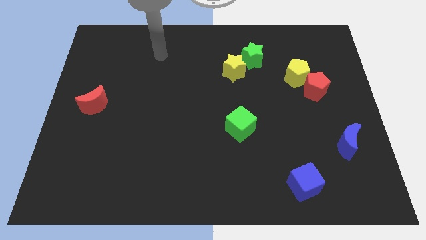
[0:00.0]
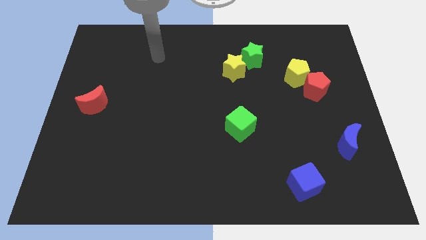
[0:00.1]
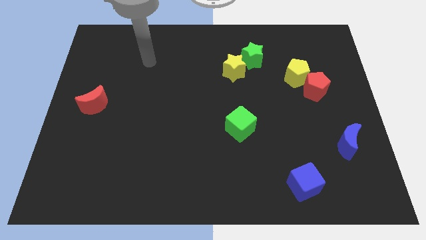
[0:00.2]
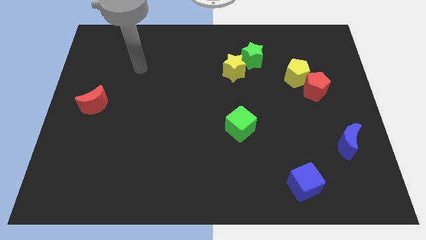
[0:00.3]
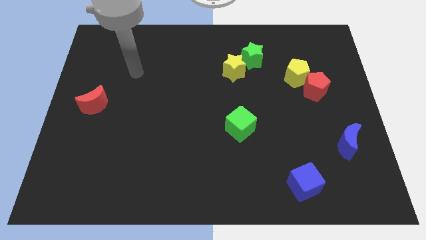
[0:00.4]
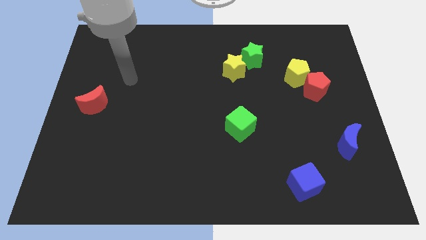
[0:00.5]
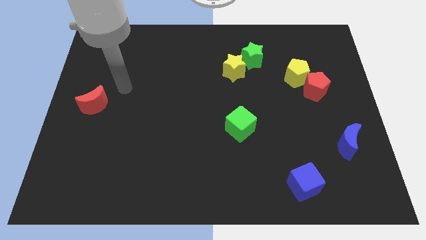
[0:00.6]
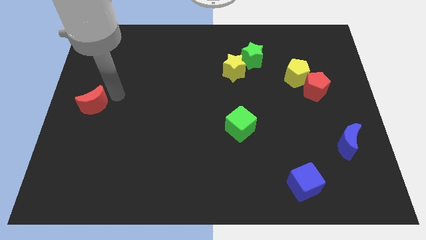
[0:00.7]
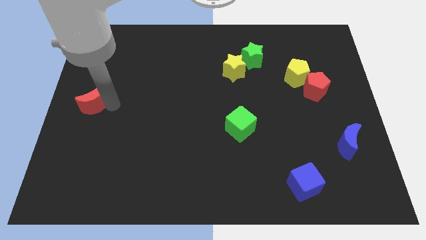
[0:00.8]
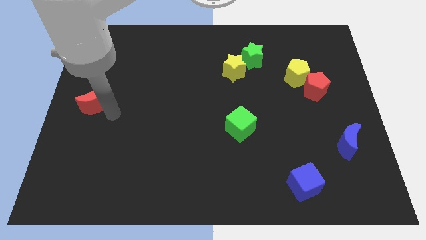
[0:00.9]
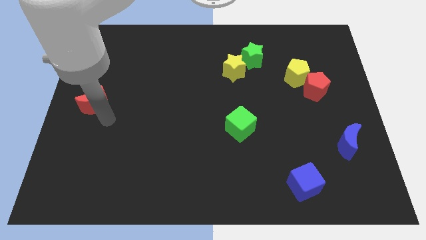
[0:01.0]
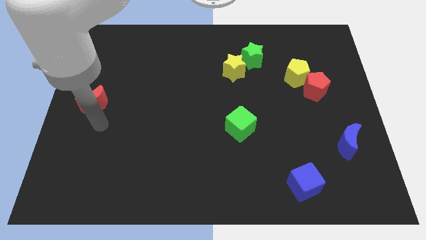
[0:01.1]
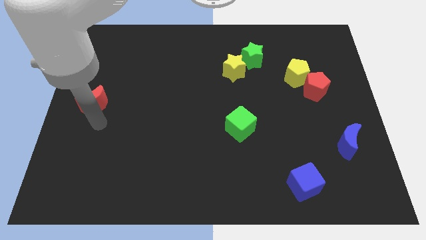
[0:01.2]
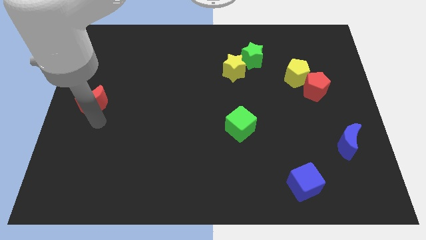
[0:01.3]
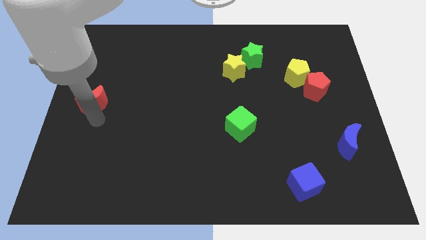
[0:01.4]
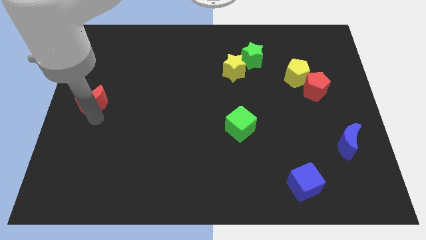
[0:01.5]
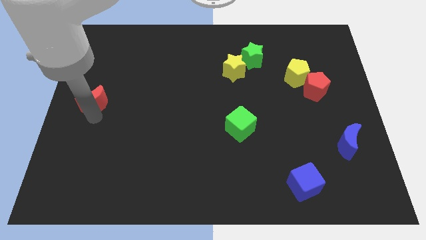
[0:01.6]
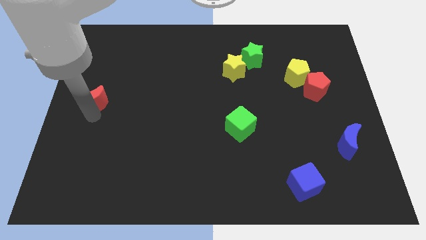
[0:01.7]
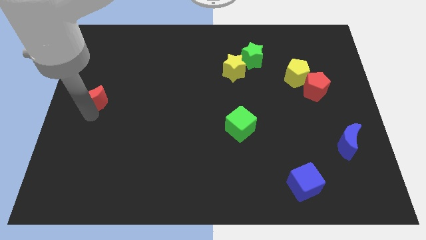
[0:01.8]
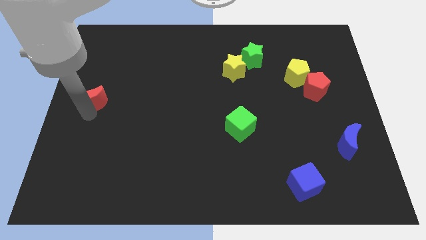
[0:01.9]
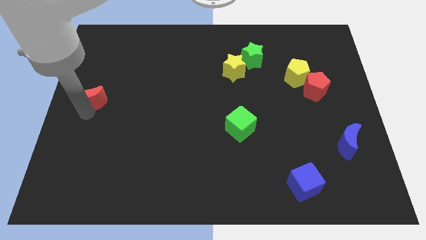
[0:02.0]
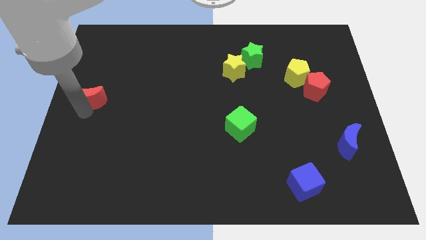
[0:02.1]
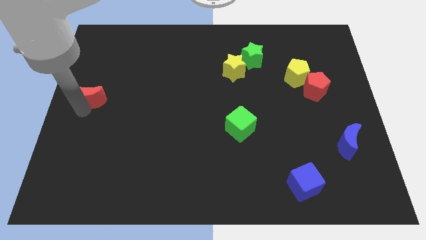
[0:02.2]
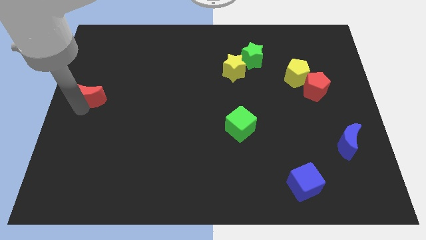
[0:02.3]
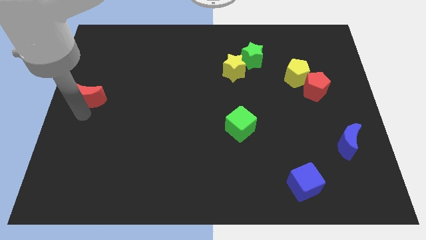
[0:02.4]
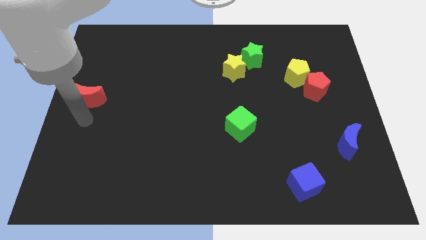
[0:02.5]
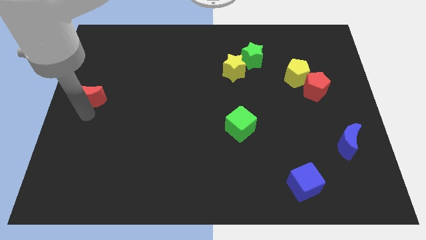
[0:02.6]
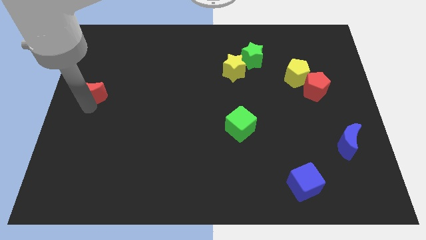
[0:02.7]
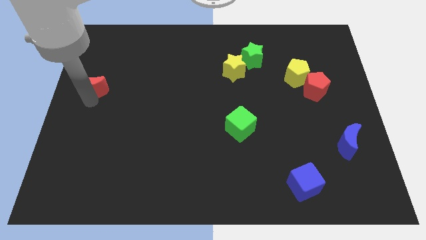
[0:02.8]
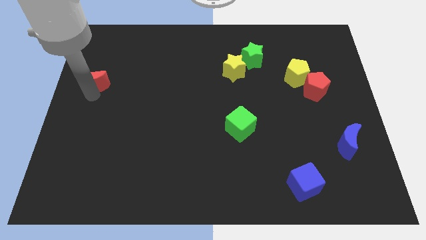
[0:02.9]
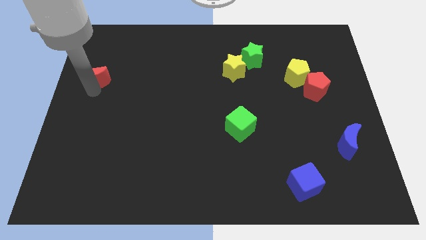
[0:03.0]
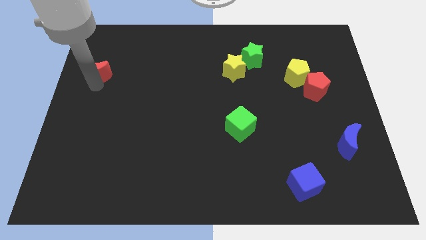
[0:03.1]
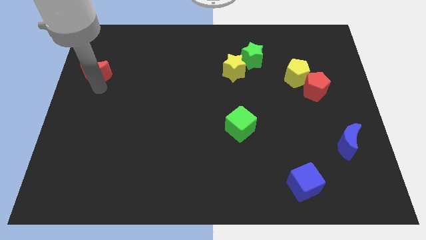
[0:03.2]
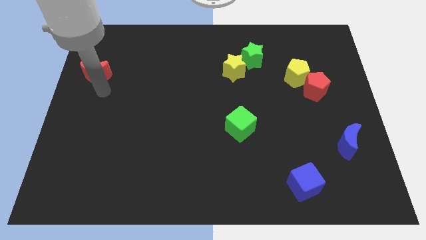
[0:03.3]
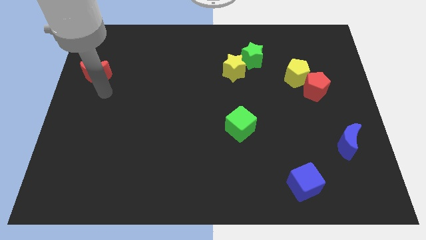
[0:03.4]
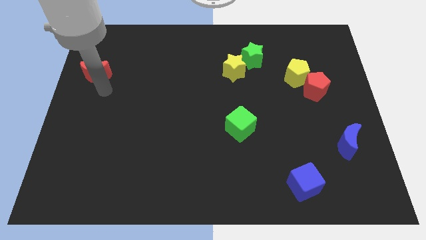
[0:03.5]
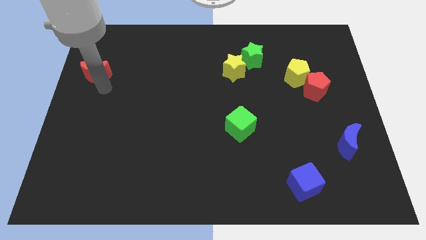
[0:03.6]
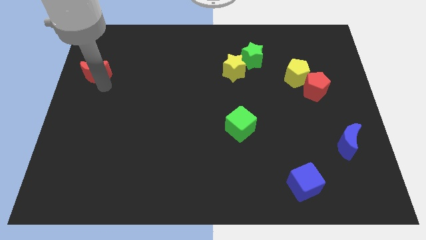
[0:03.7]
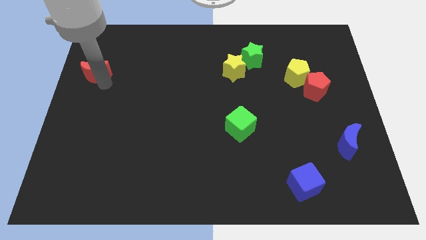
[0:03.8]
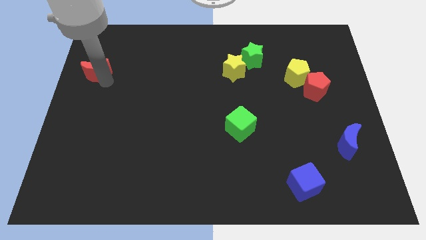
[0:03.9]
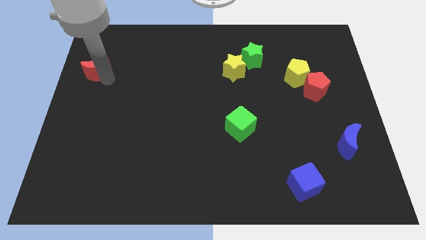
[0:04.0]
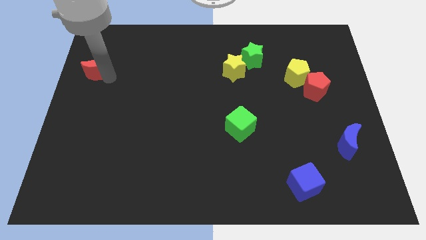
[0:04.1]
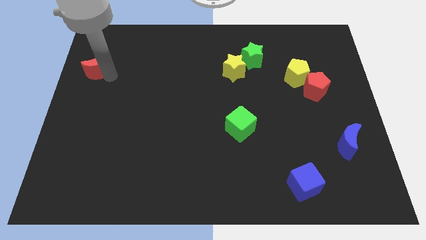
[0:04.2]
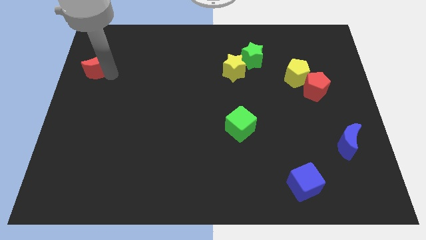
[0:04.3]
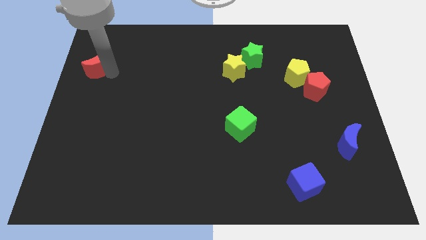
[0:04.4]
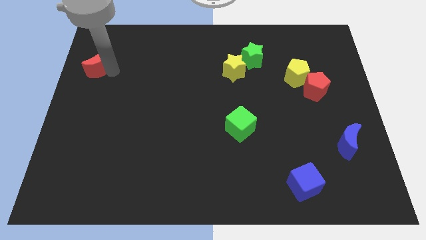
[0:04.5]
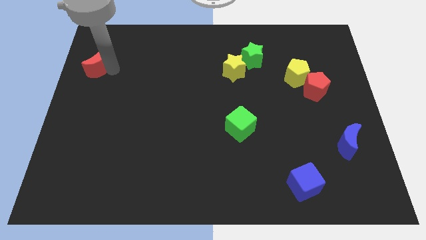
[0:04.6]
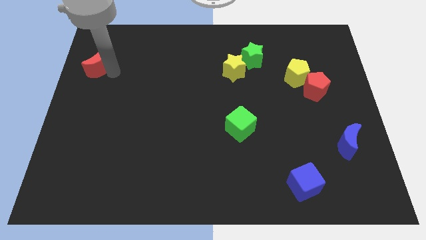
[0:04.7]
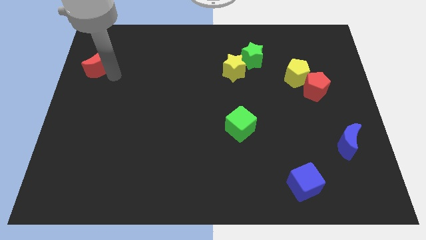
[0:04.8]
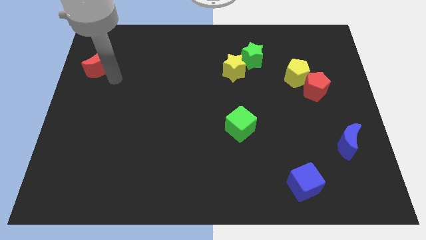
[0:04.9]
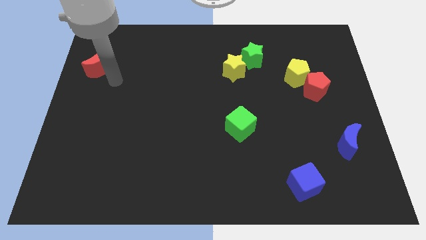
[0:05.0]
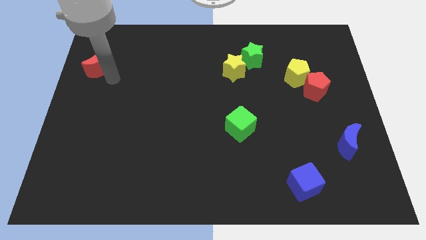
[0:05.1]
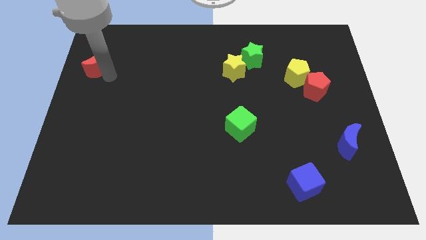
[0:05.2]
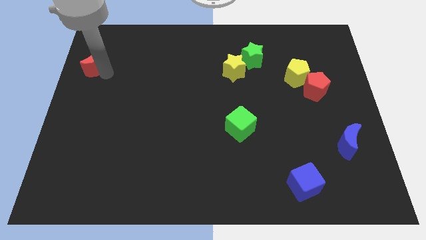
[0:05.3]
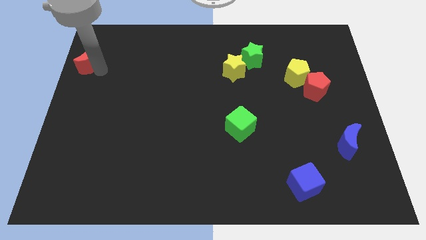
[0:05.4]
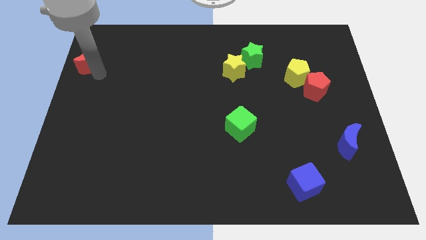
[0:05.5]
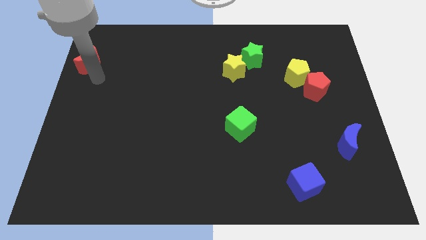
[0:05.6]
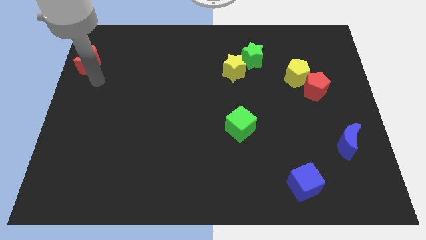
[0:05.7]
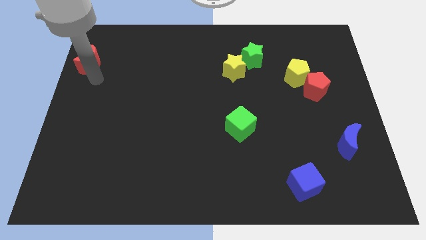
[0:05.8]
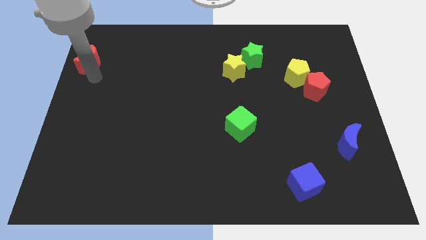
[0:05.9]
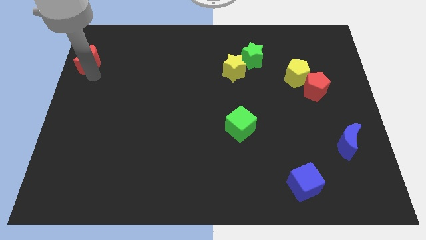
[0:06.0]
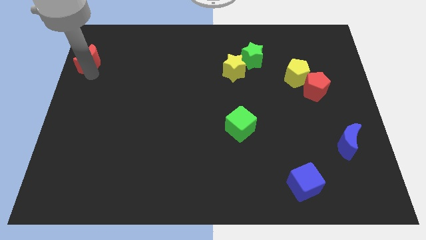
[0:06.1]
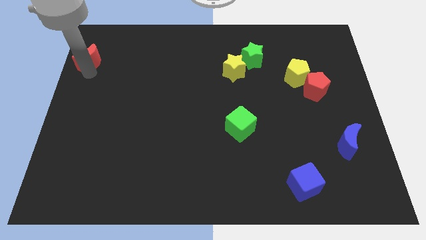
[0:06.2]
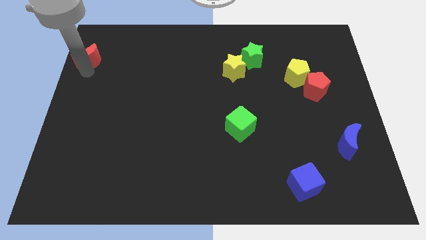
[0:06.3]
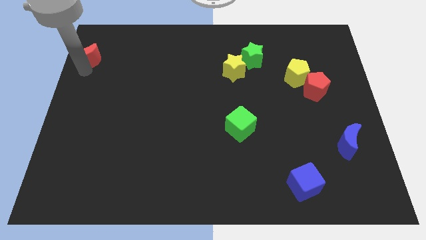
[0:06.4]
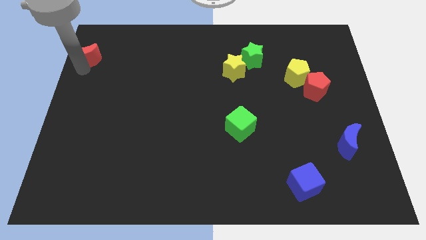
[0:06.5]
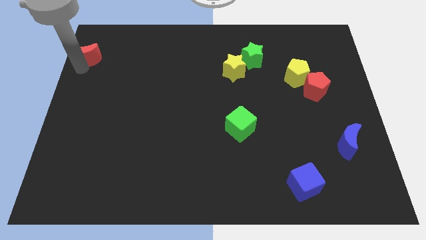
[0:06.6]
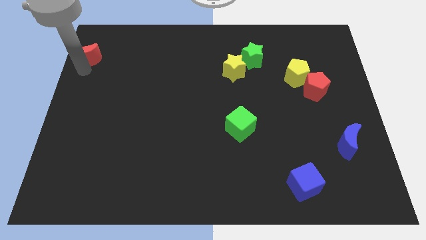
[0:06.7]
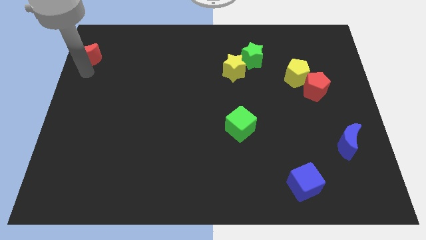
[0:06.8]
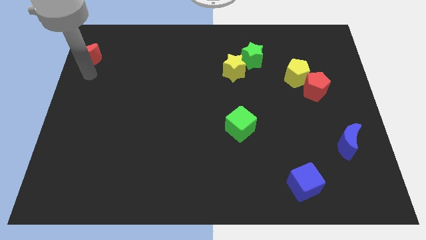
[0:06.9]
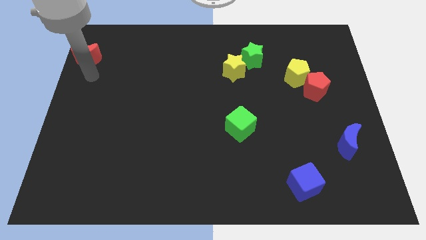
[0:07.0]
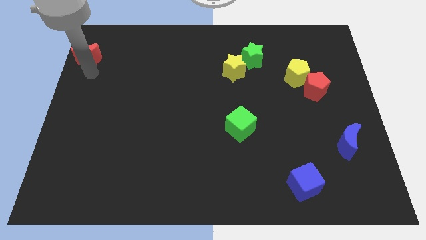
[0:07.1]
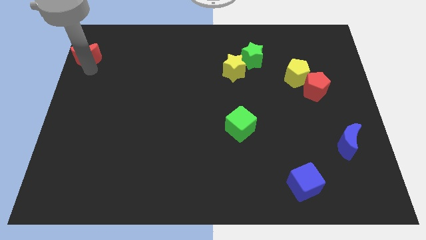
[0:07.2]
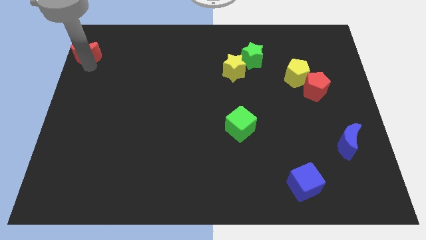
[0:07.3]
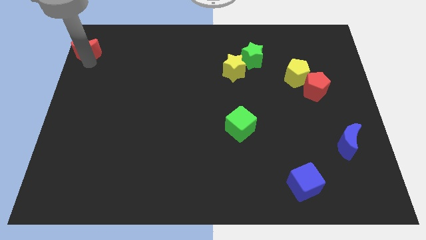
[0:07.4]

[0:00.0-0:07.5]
push the red moon to the upper left corner
